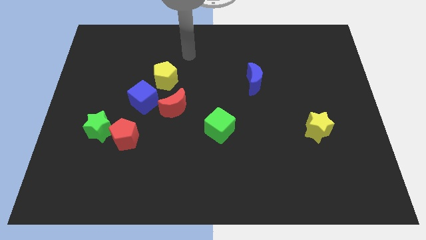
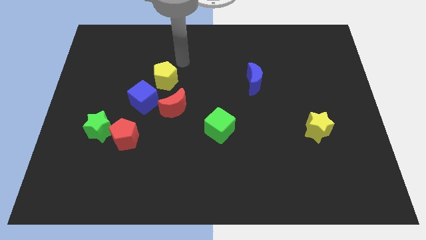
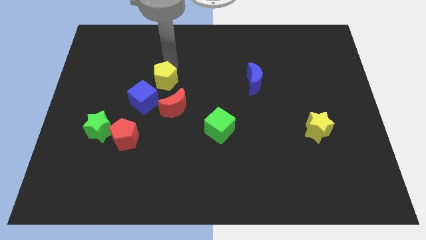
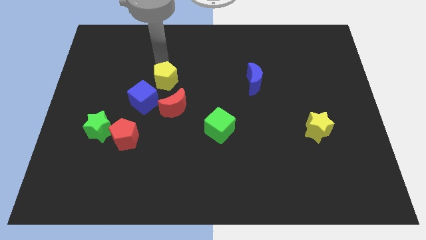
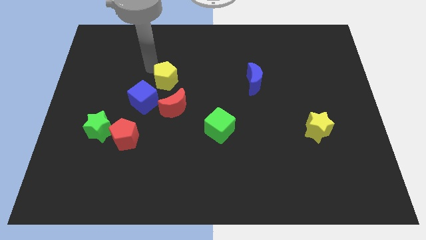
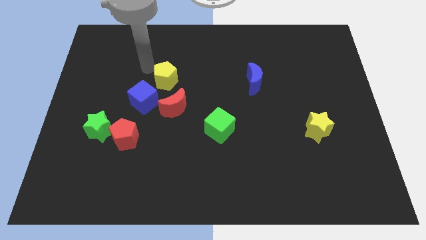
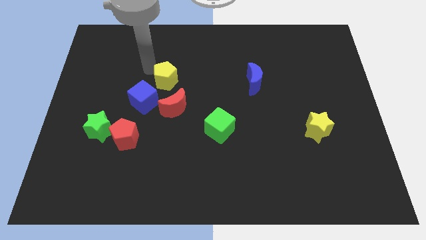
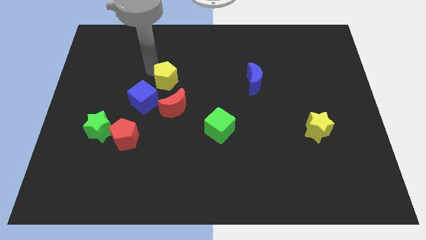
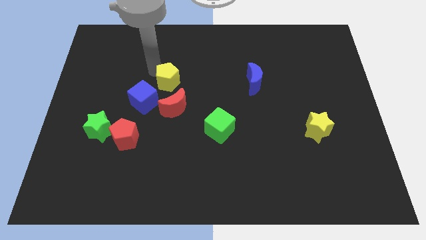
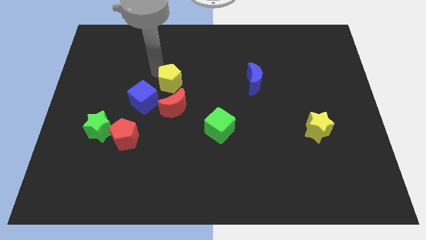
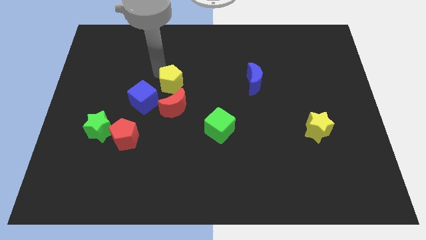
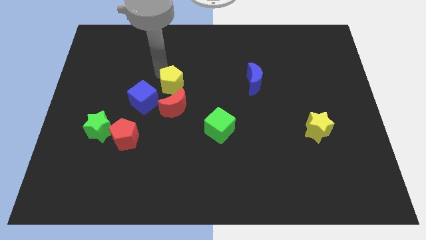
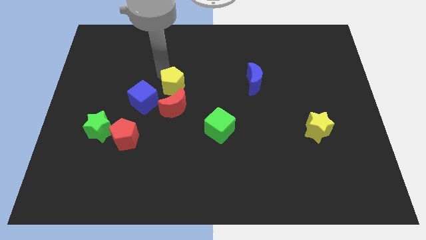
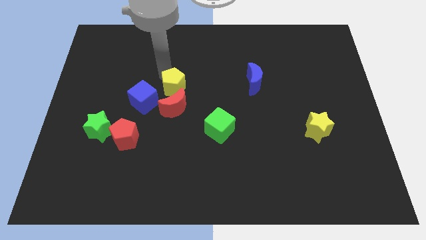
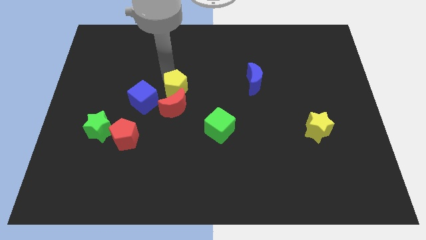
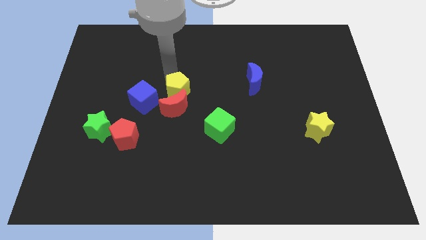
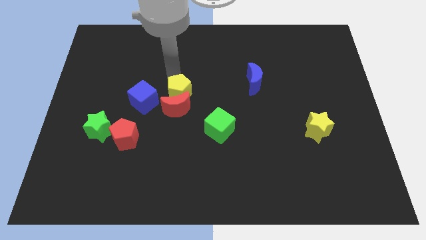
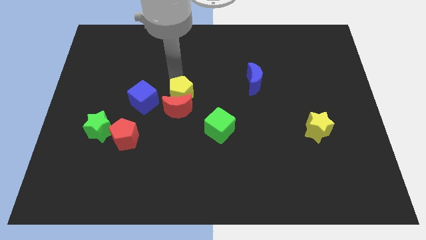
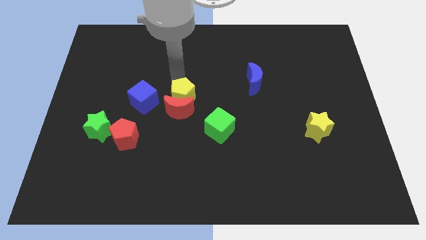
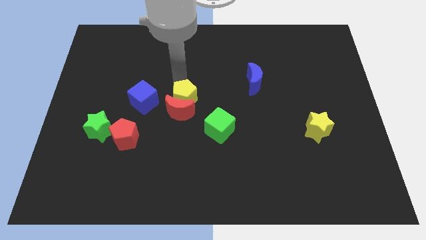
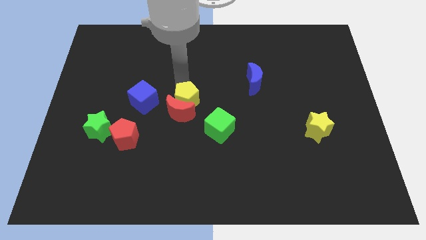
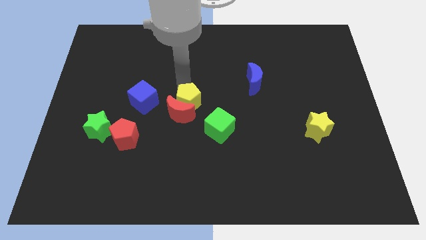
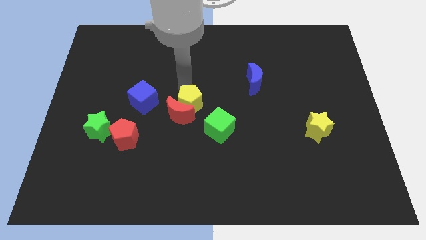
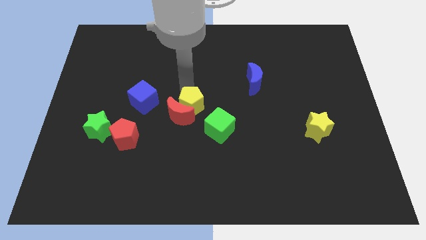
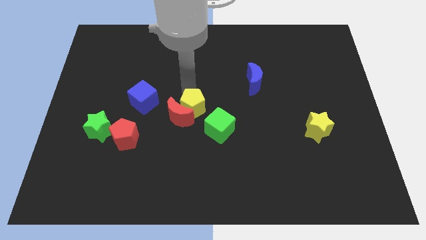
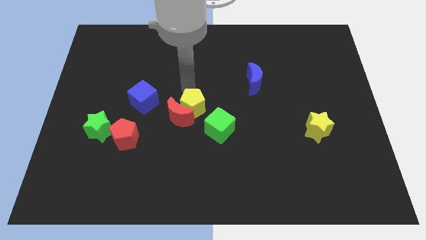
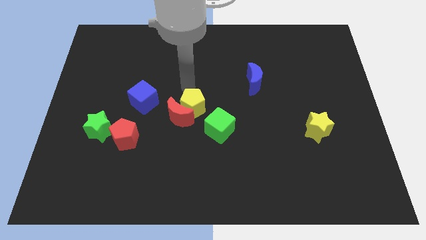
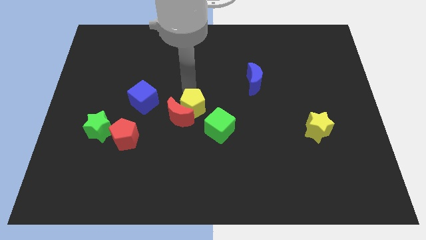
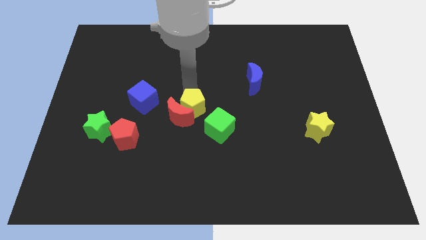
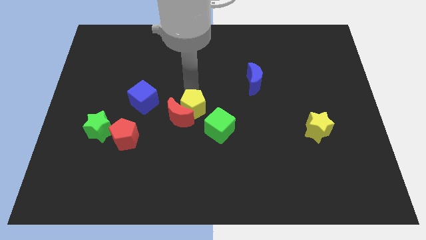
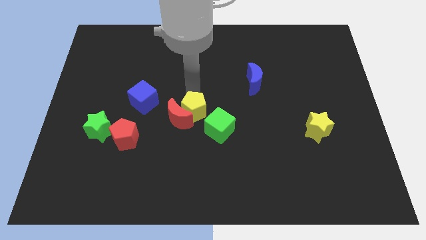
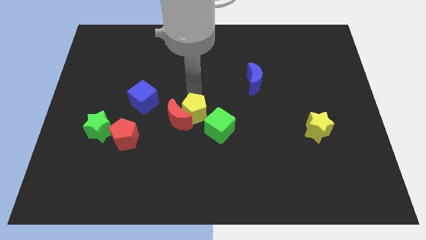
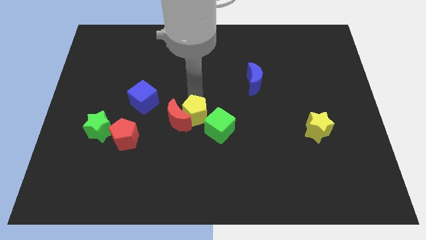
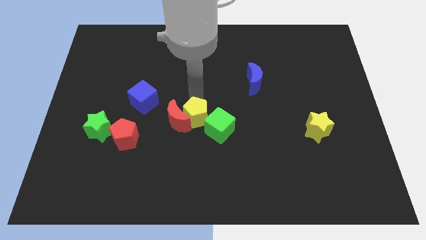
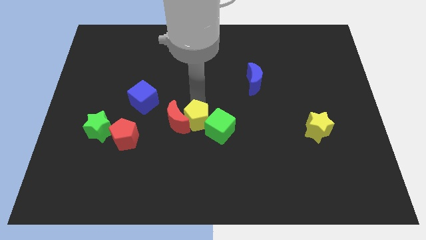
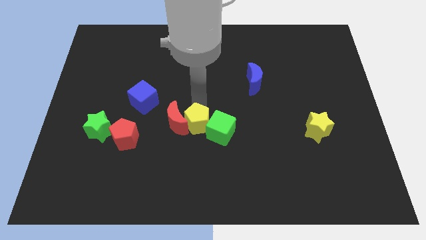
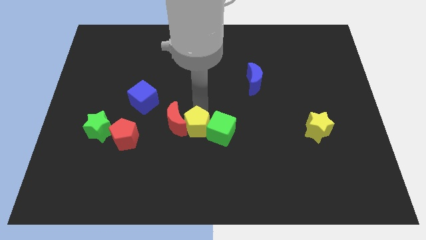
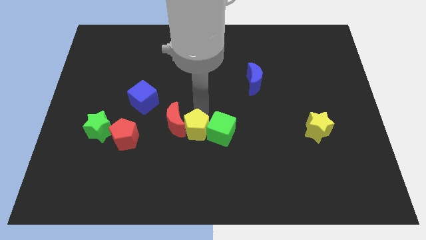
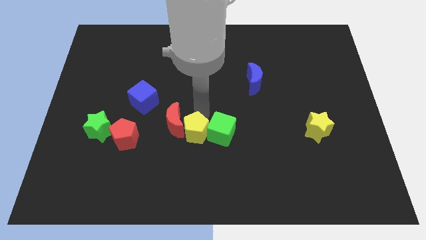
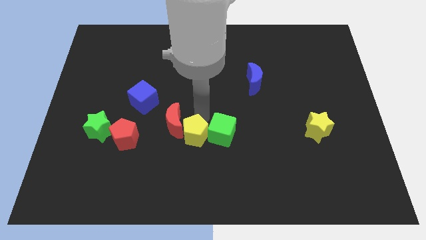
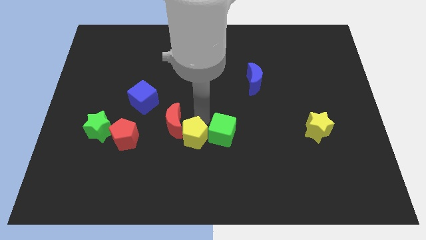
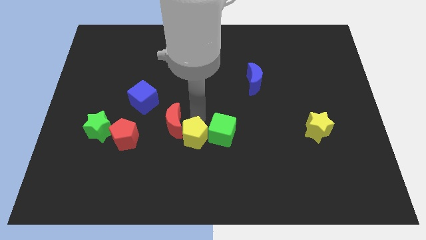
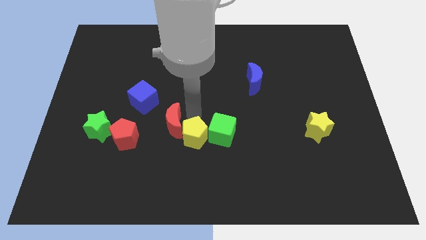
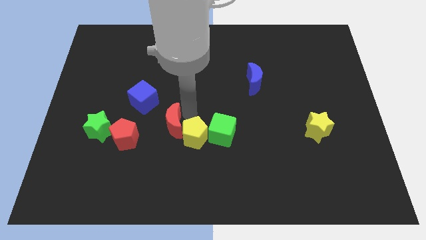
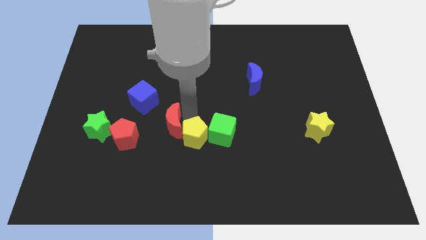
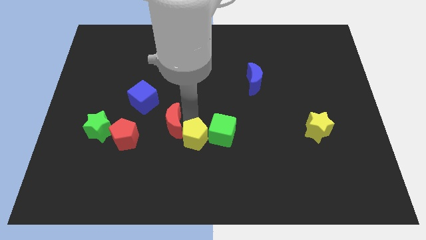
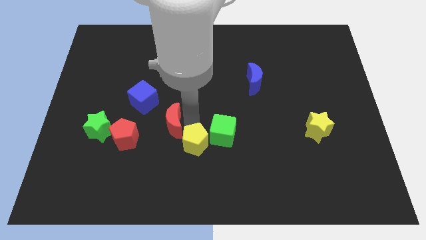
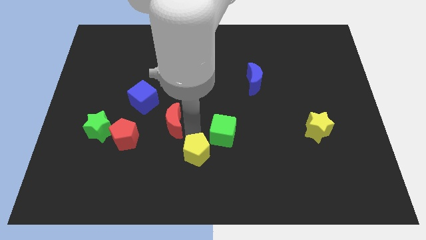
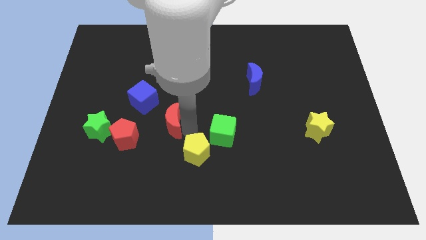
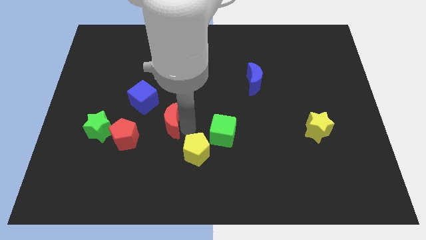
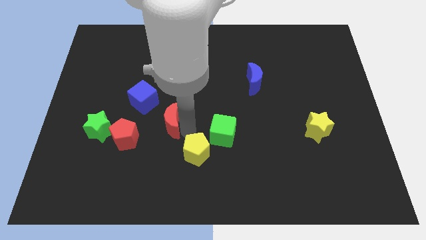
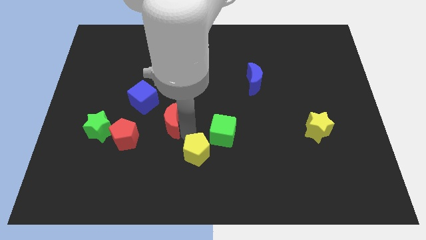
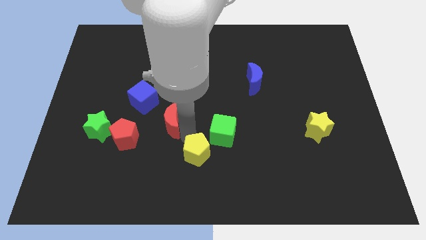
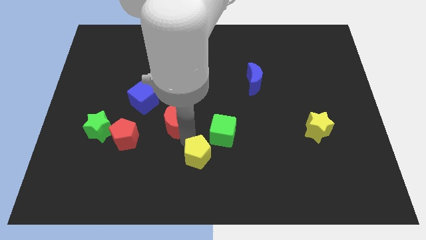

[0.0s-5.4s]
put the yellow pentagon to the bottom

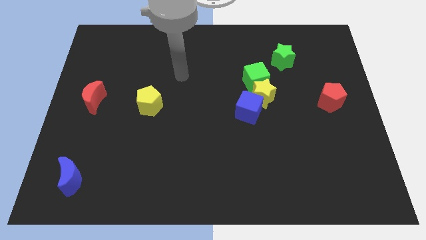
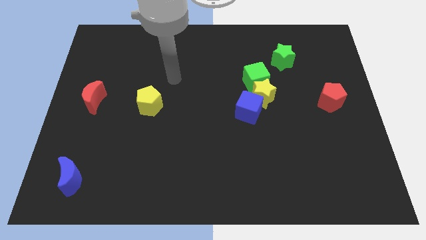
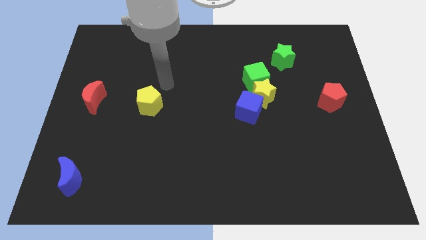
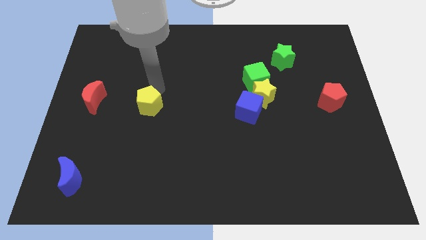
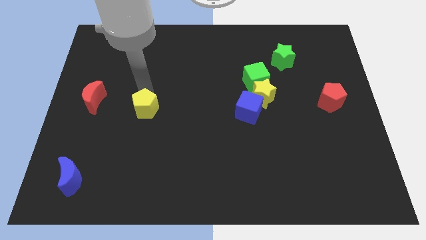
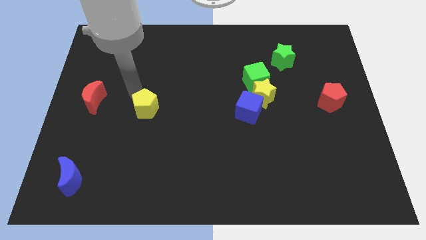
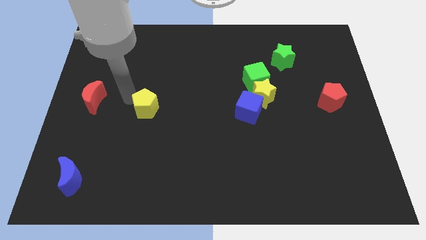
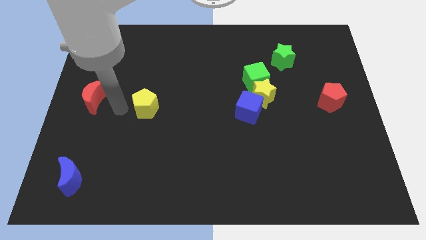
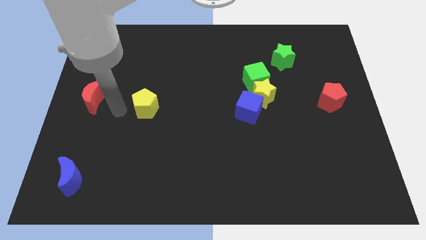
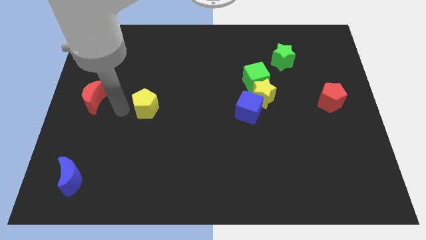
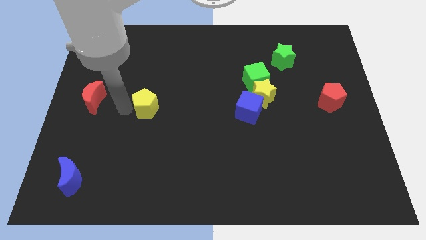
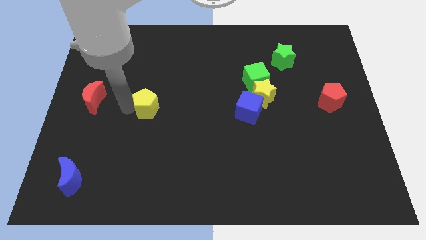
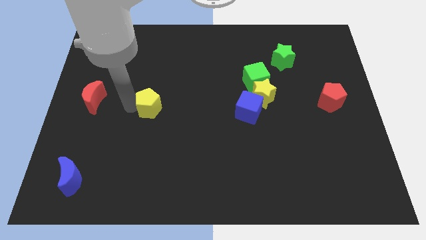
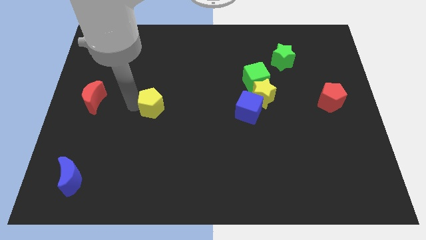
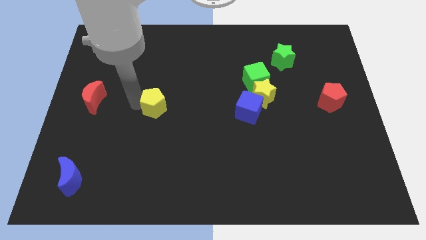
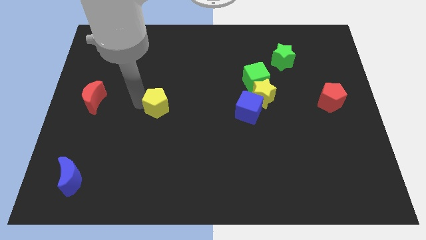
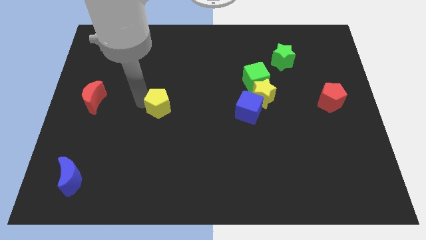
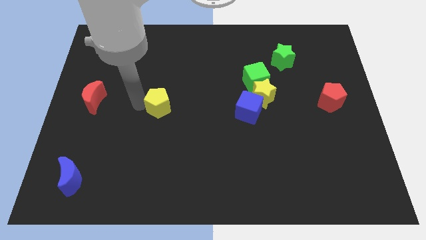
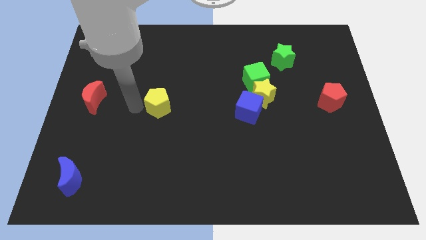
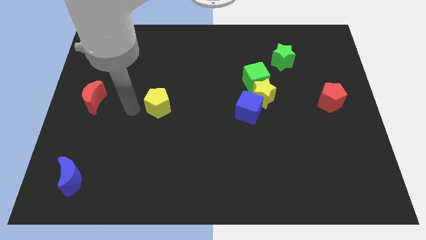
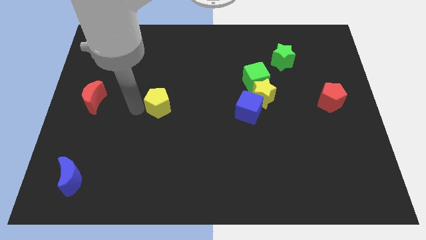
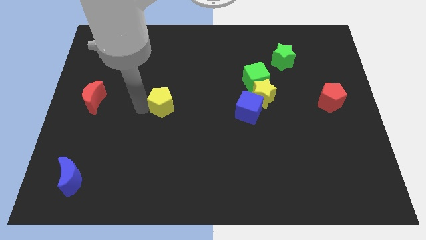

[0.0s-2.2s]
put the yellow pentagon to the center of the board
